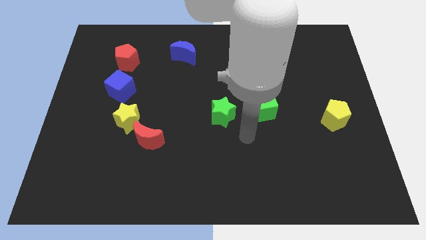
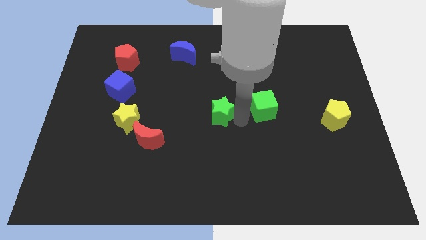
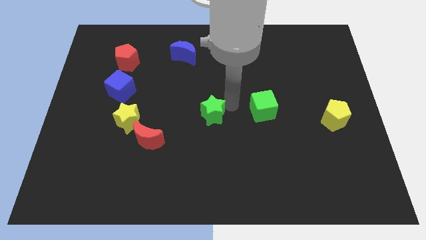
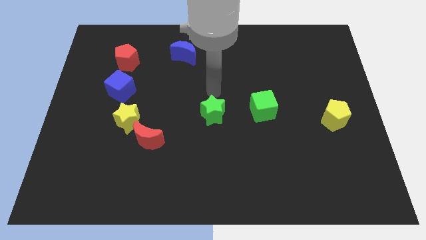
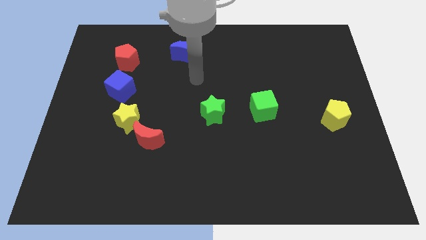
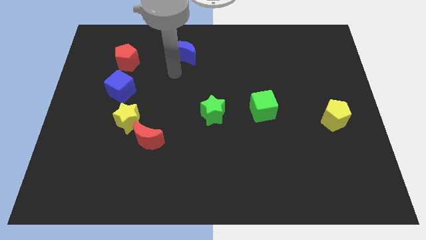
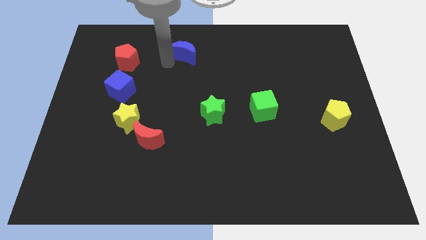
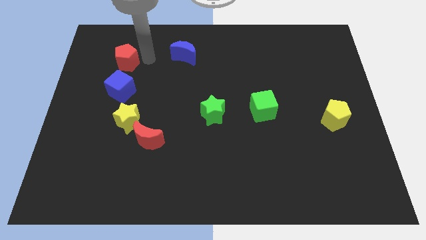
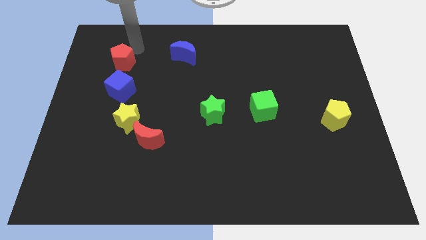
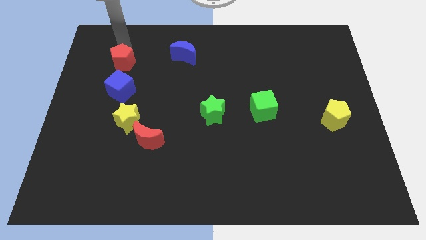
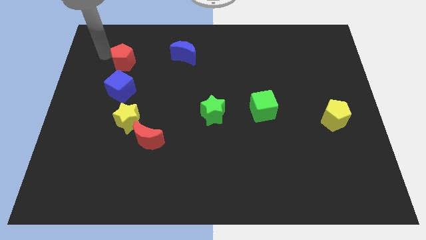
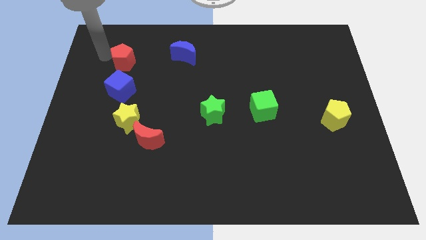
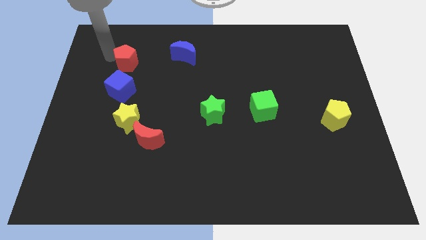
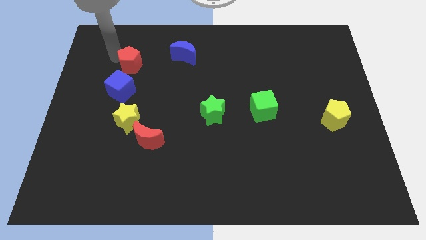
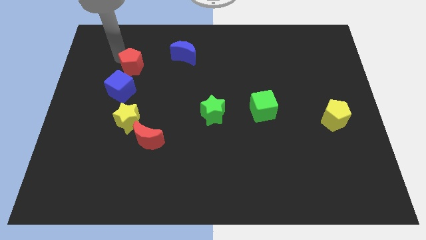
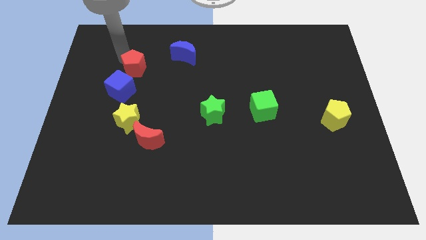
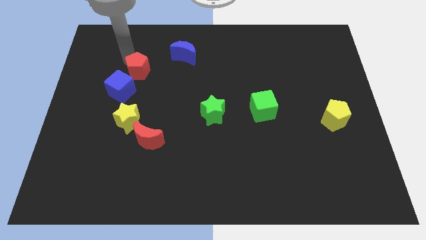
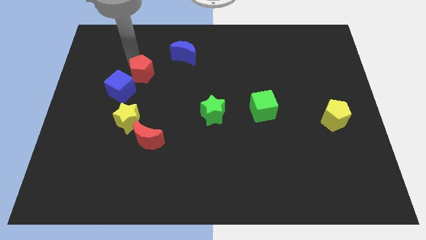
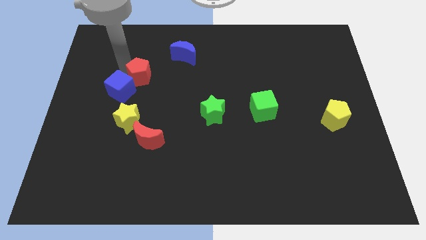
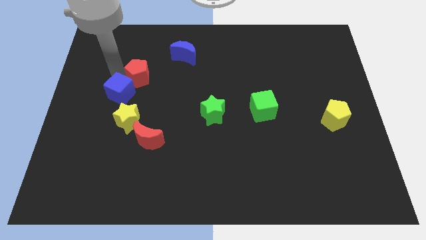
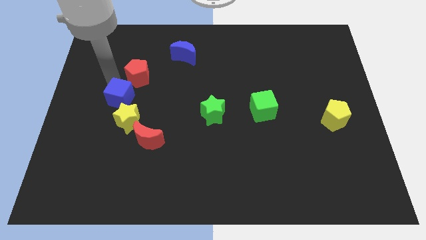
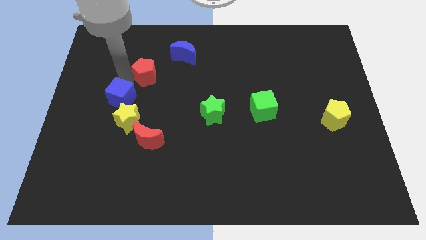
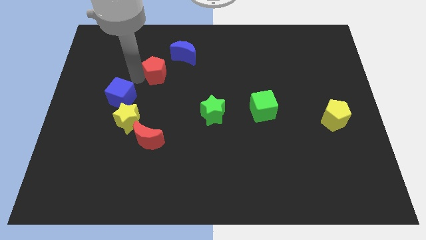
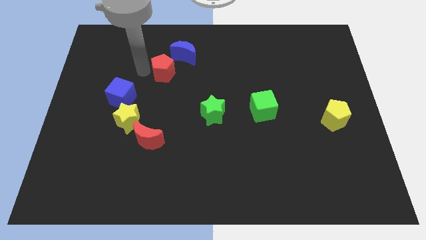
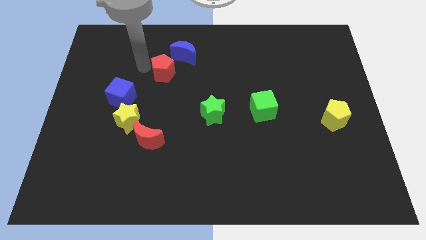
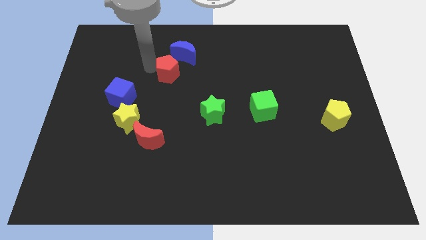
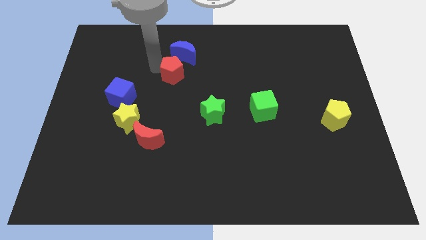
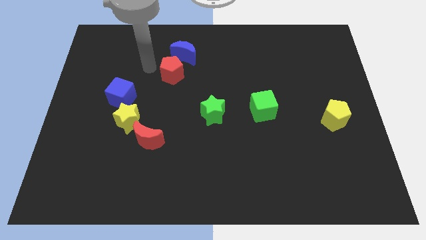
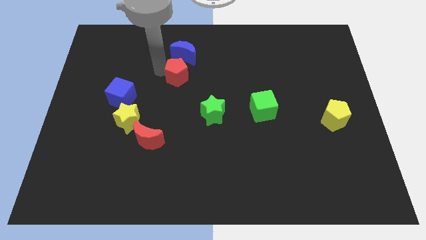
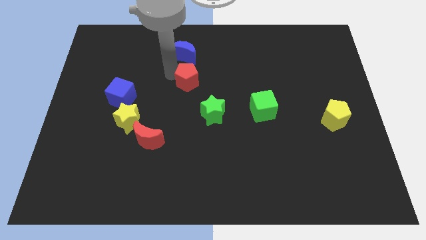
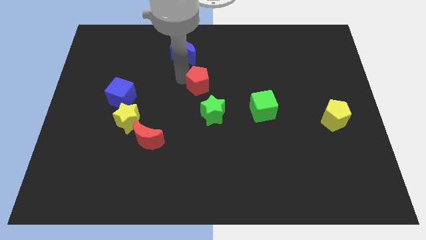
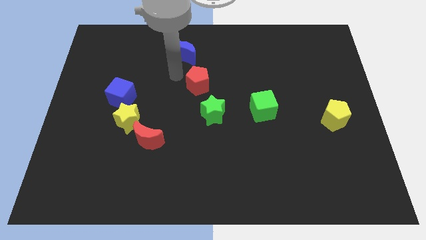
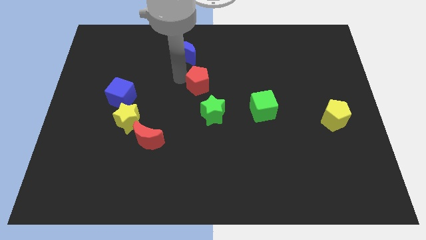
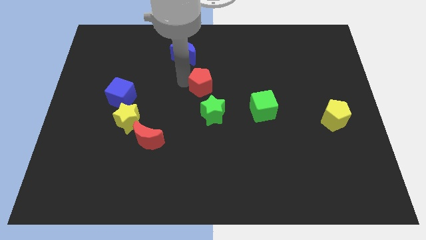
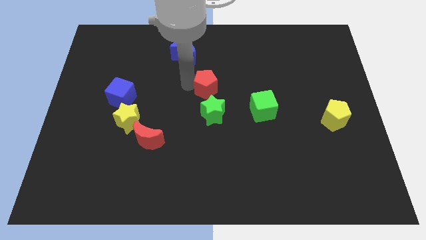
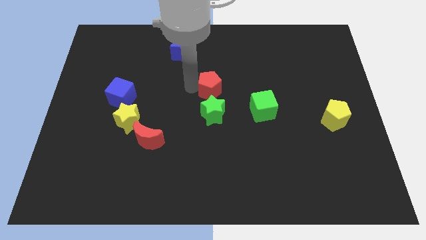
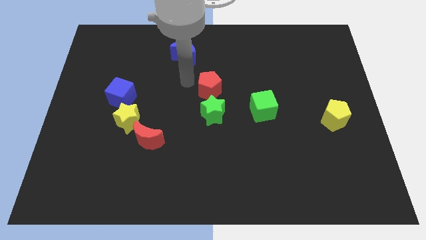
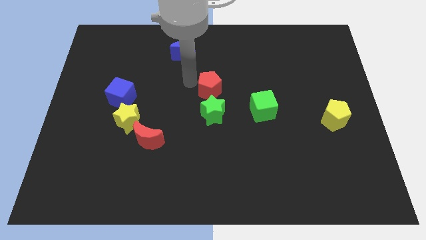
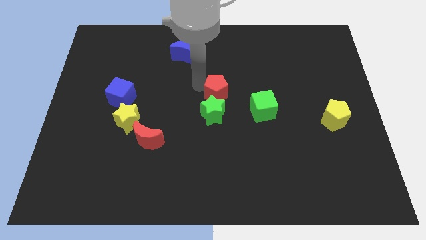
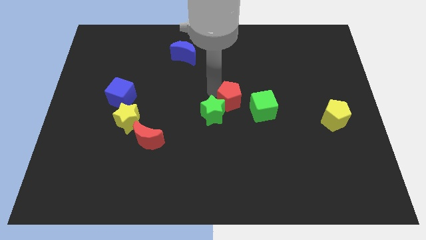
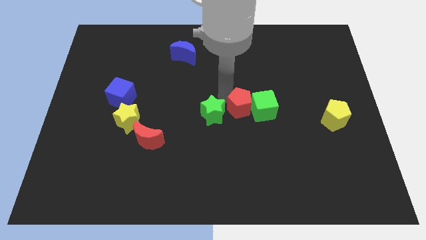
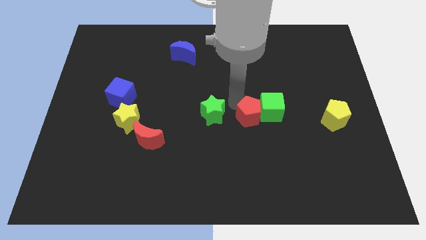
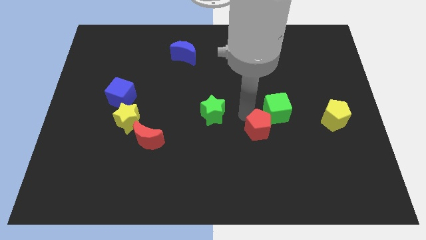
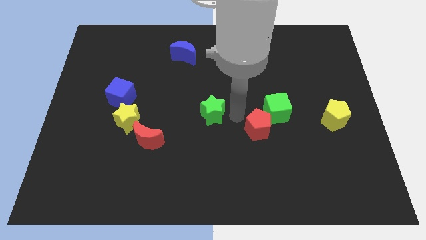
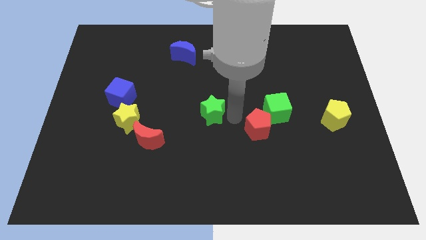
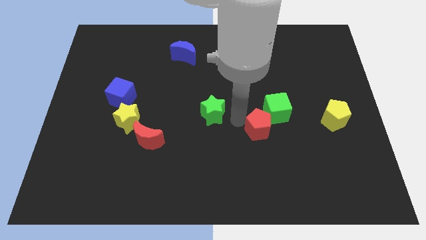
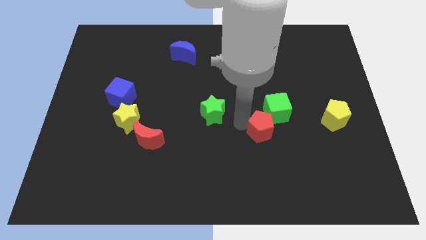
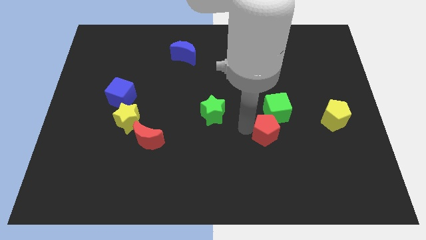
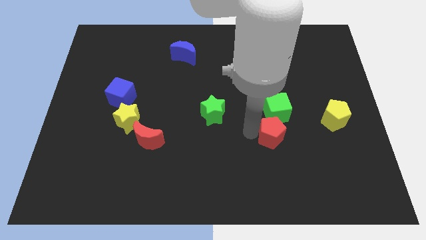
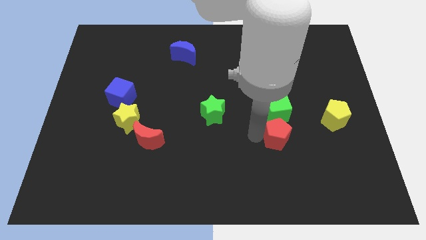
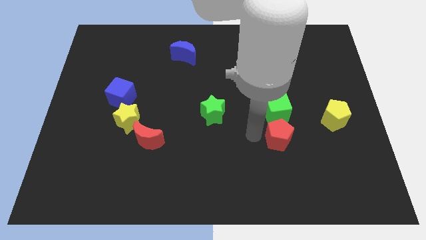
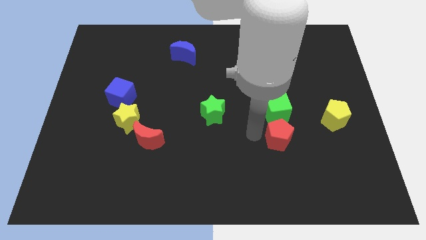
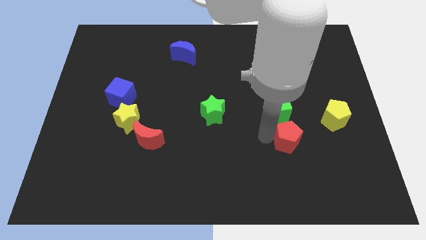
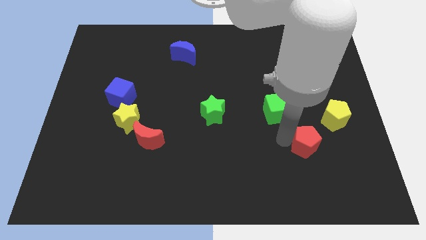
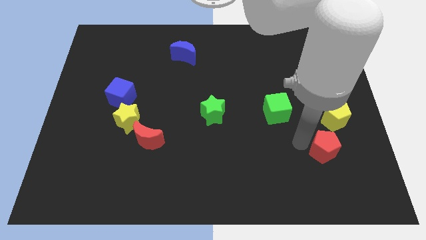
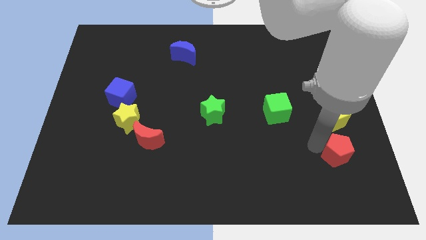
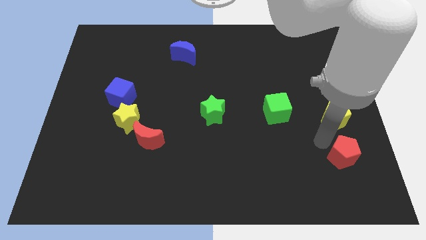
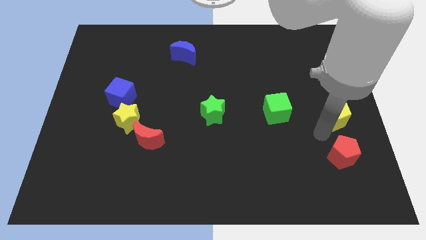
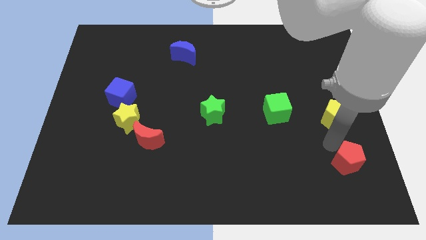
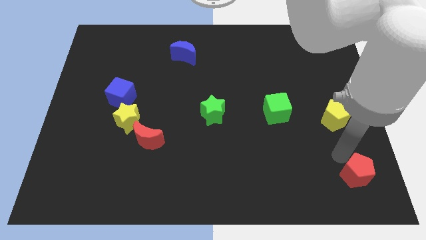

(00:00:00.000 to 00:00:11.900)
push the red pentagon to the bottom right of the board
